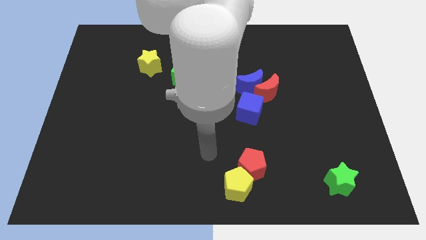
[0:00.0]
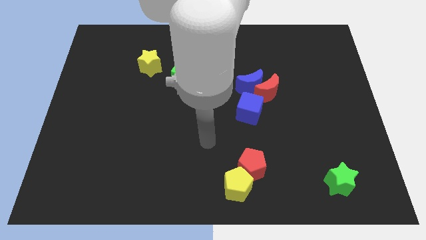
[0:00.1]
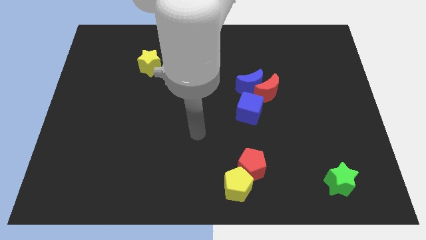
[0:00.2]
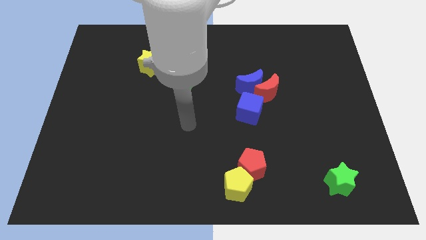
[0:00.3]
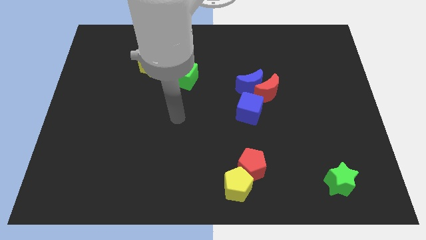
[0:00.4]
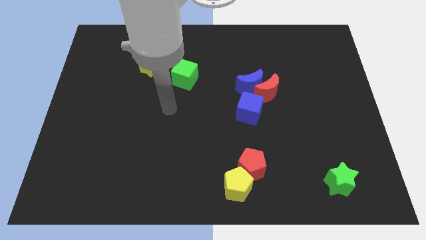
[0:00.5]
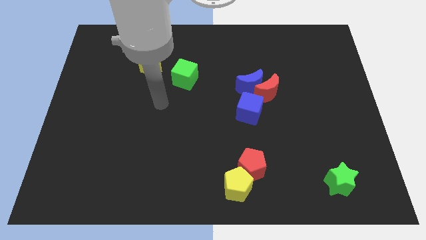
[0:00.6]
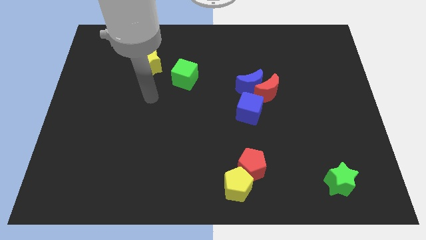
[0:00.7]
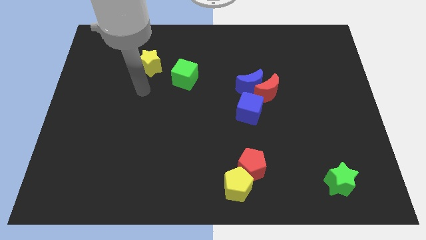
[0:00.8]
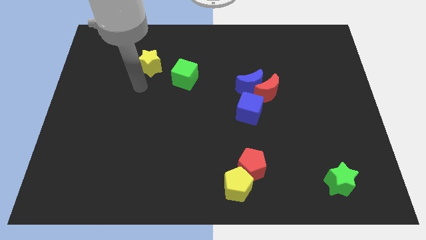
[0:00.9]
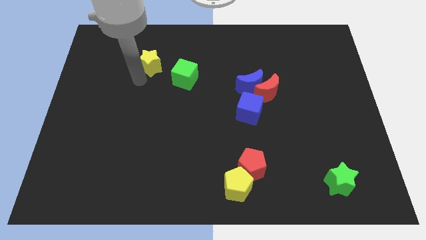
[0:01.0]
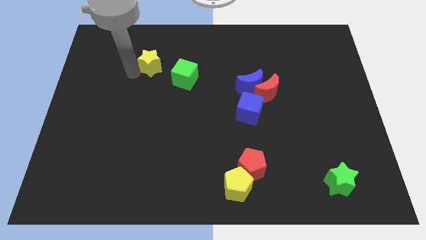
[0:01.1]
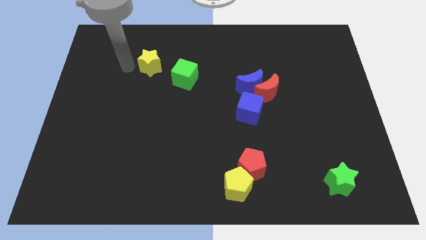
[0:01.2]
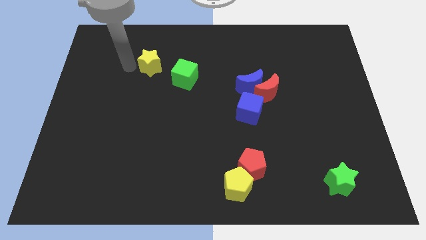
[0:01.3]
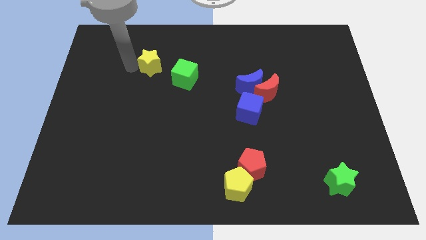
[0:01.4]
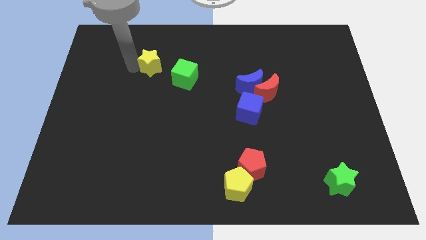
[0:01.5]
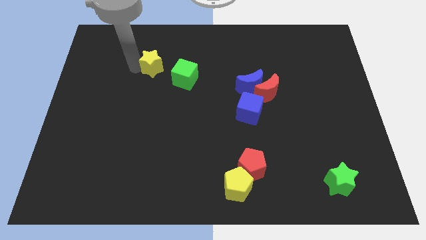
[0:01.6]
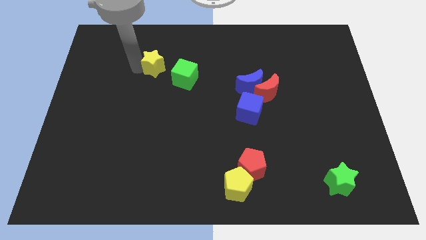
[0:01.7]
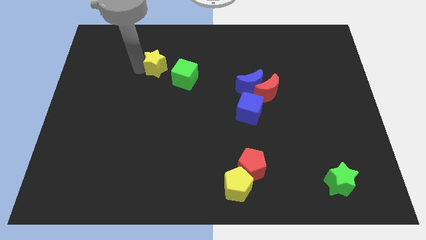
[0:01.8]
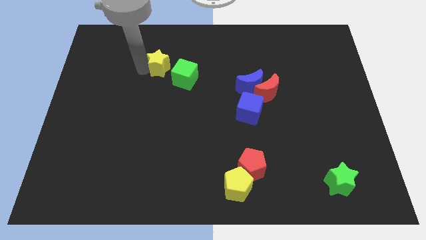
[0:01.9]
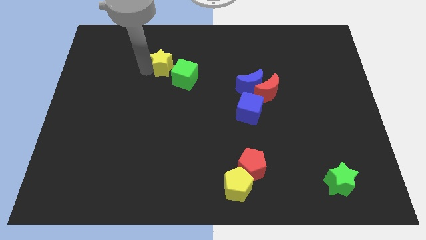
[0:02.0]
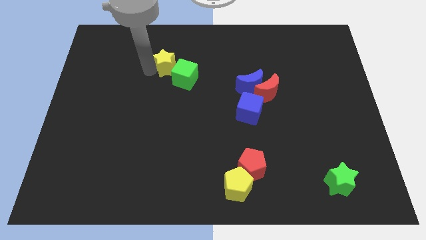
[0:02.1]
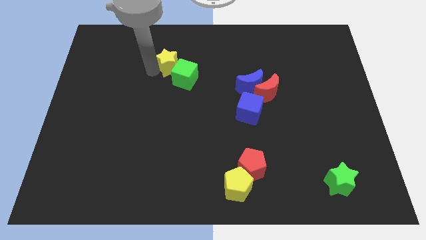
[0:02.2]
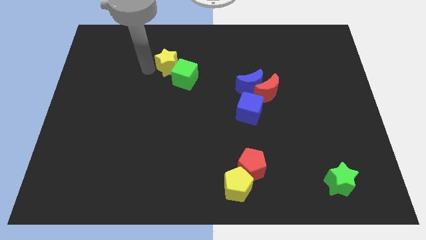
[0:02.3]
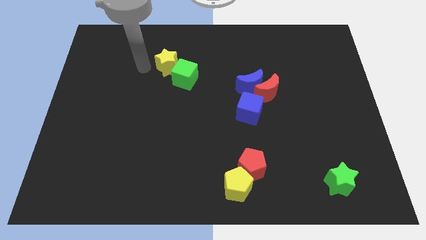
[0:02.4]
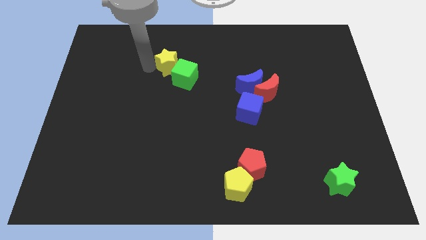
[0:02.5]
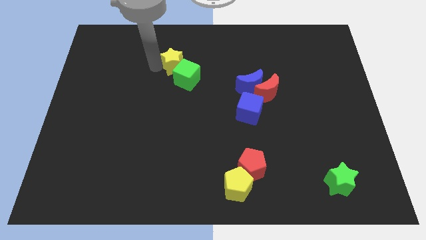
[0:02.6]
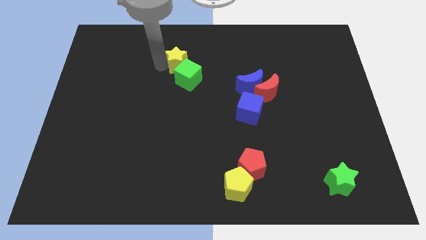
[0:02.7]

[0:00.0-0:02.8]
slightly move the yellow star to the right

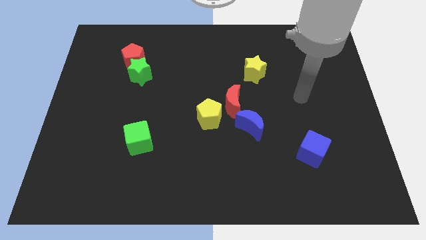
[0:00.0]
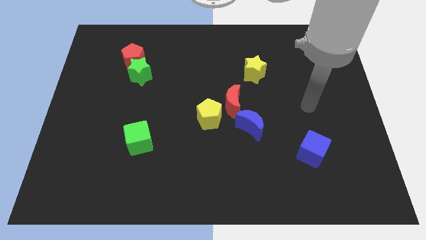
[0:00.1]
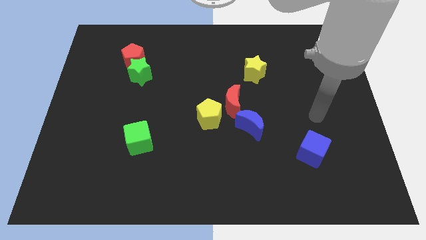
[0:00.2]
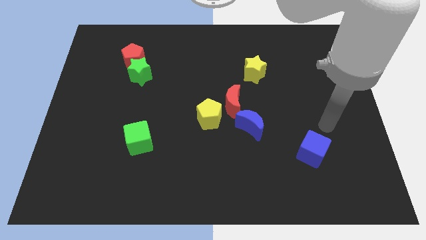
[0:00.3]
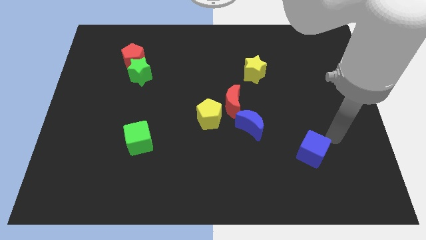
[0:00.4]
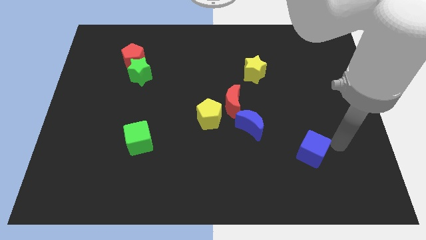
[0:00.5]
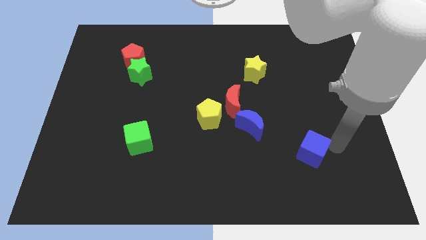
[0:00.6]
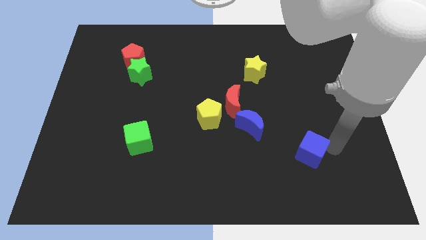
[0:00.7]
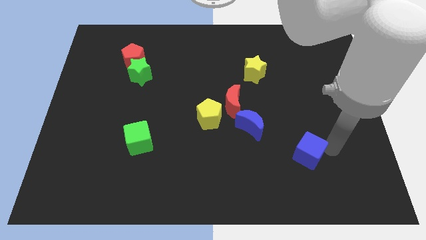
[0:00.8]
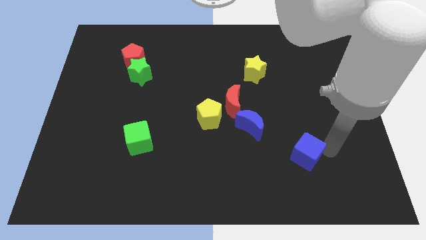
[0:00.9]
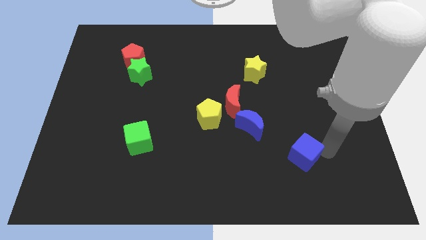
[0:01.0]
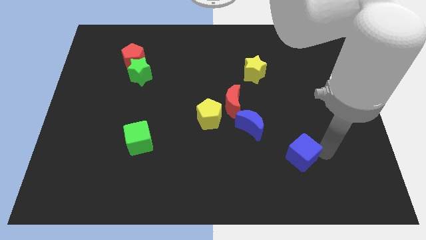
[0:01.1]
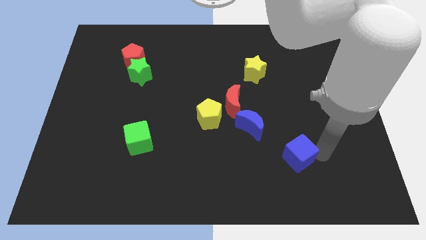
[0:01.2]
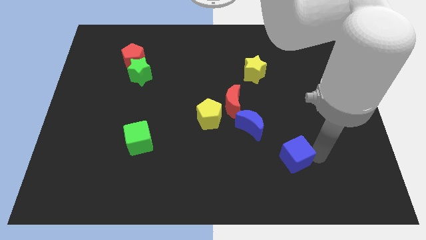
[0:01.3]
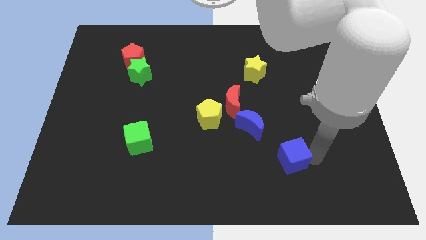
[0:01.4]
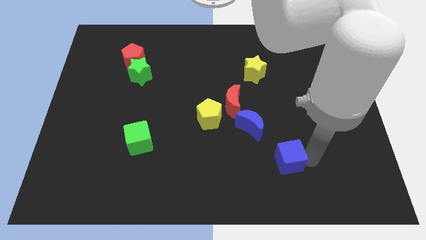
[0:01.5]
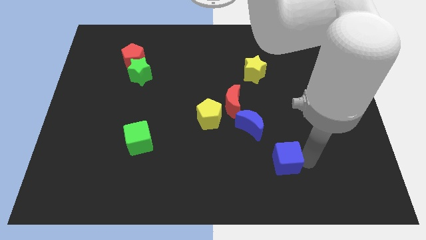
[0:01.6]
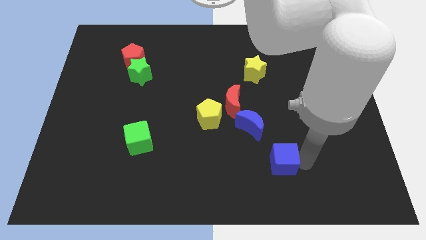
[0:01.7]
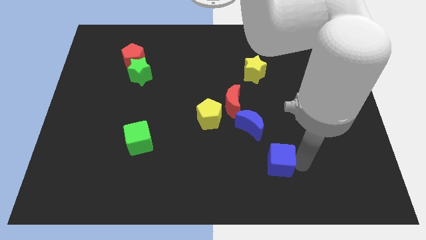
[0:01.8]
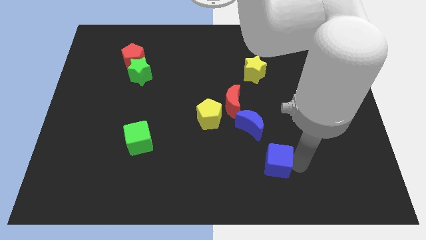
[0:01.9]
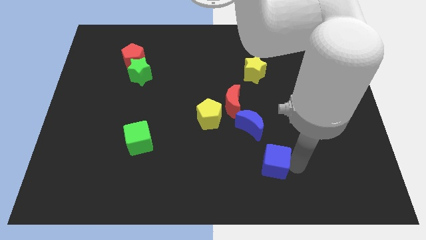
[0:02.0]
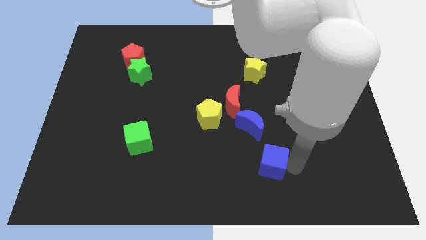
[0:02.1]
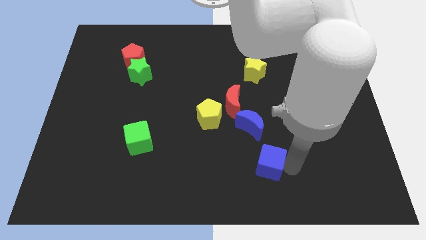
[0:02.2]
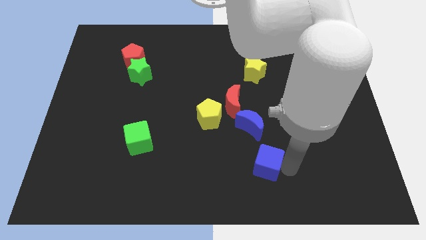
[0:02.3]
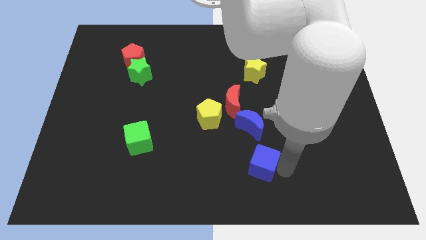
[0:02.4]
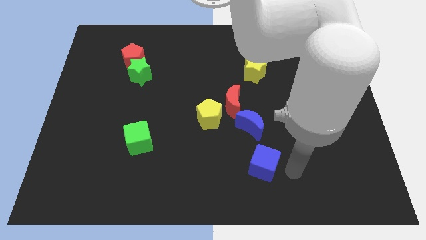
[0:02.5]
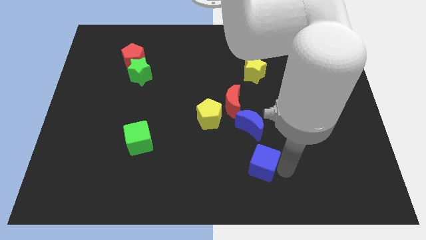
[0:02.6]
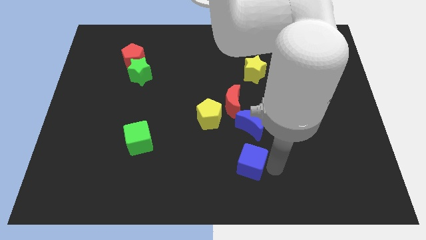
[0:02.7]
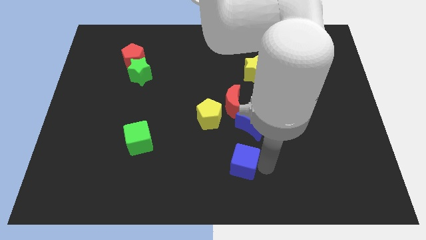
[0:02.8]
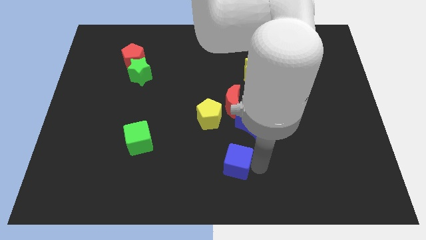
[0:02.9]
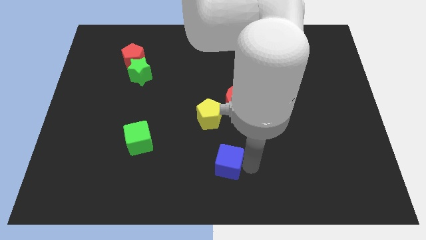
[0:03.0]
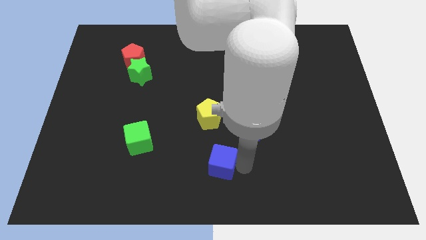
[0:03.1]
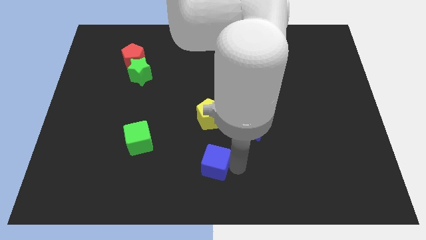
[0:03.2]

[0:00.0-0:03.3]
push the blue cube left

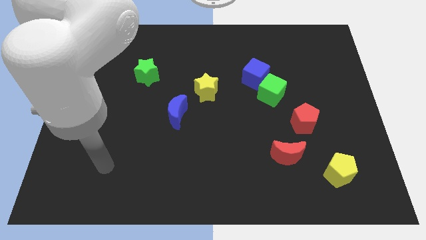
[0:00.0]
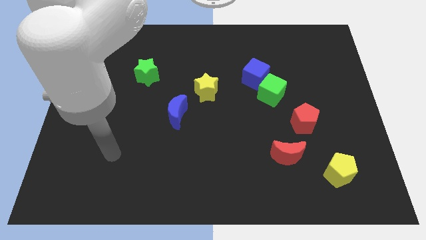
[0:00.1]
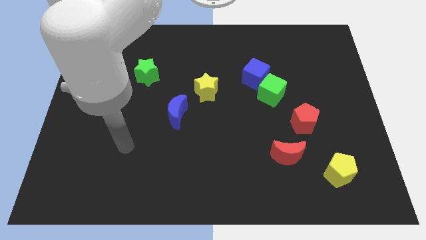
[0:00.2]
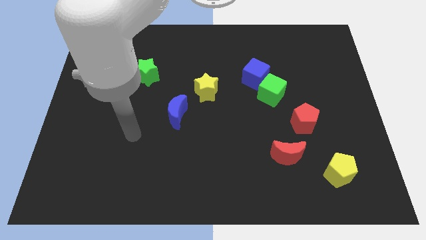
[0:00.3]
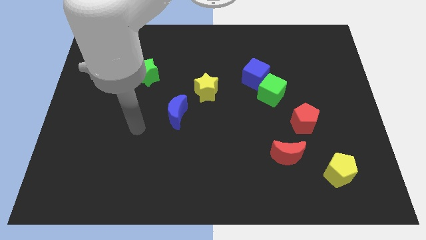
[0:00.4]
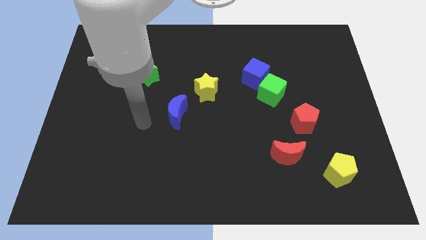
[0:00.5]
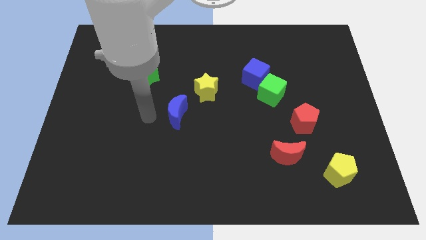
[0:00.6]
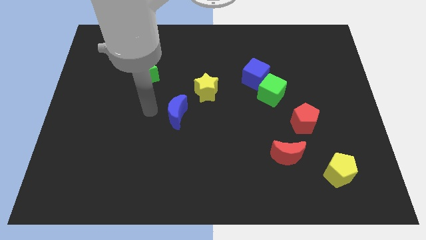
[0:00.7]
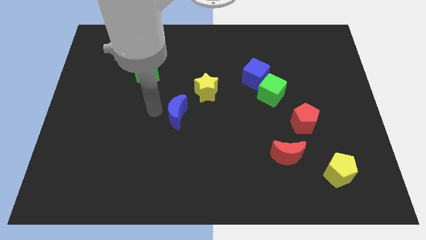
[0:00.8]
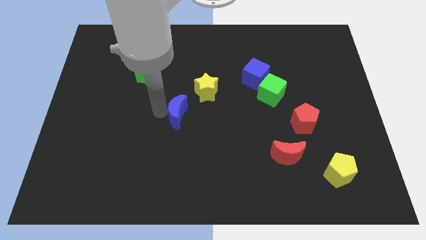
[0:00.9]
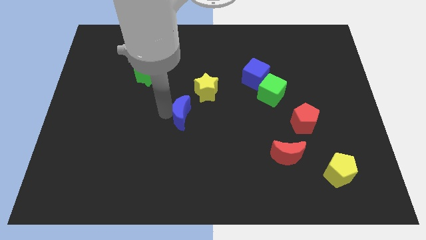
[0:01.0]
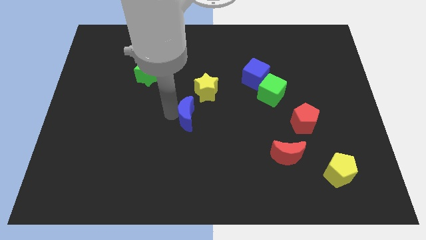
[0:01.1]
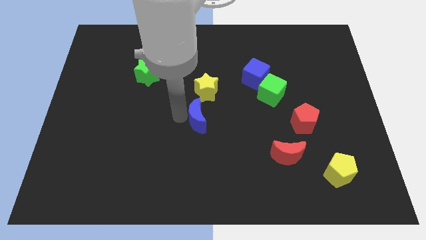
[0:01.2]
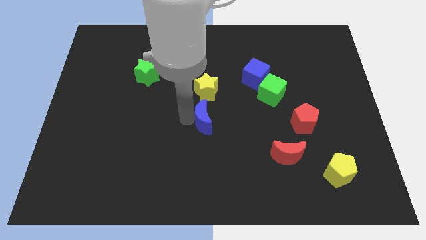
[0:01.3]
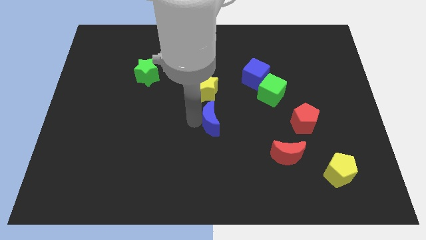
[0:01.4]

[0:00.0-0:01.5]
move the blue moon a little to the right

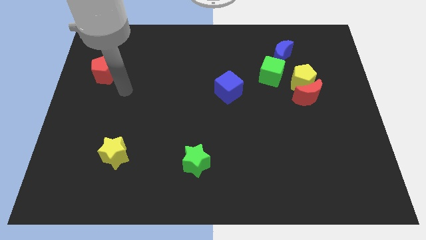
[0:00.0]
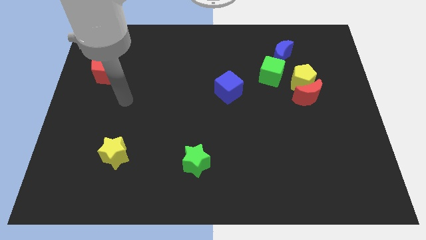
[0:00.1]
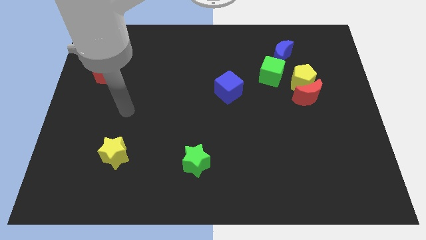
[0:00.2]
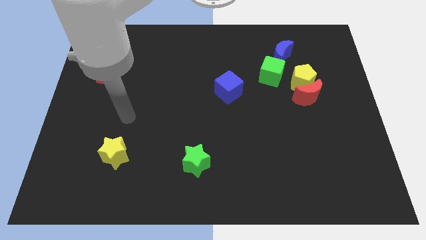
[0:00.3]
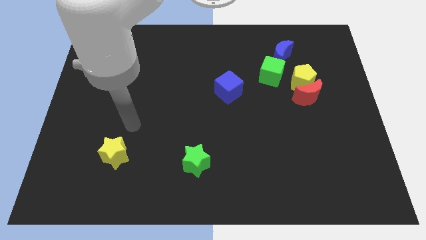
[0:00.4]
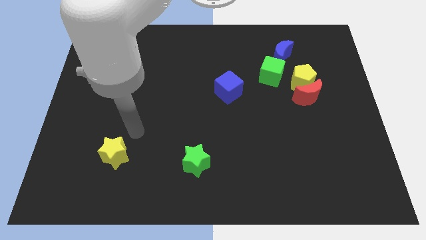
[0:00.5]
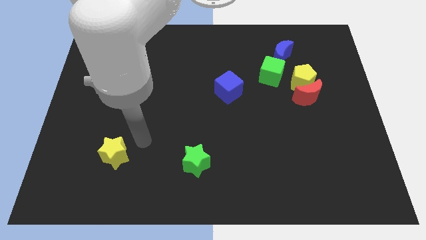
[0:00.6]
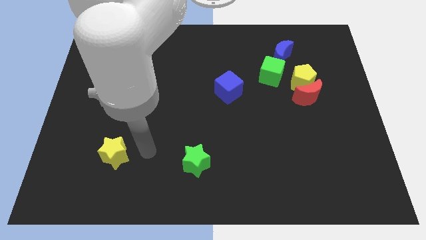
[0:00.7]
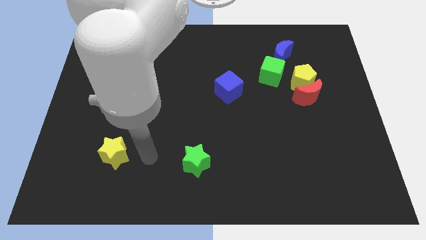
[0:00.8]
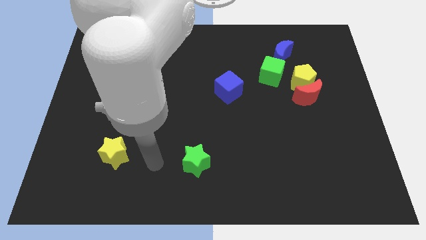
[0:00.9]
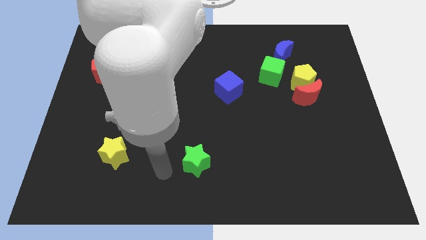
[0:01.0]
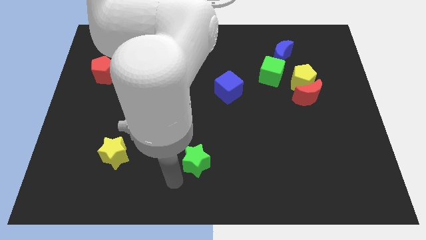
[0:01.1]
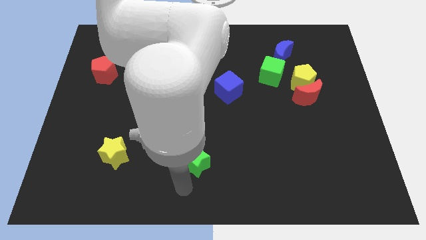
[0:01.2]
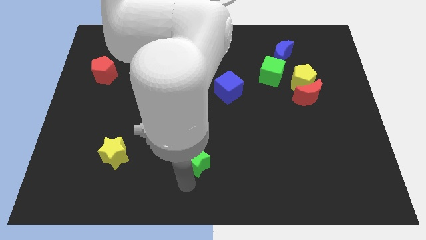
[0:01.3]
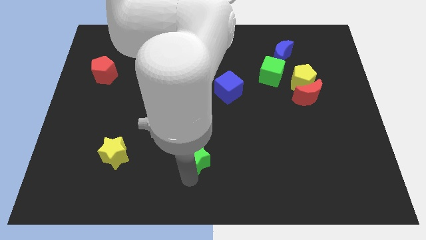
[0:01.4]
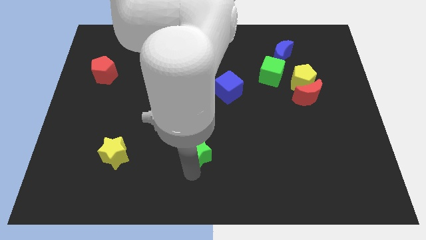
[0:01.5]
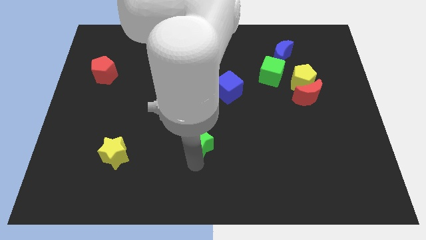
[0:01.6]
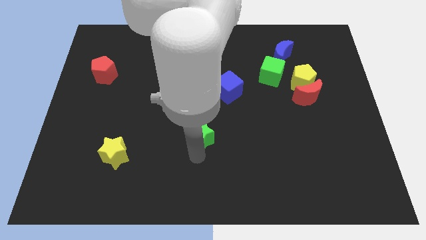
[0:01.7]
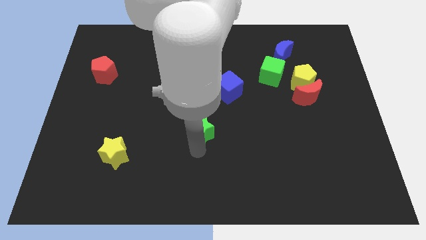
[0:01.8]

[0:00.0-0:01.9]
slightly move the green star up
